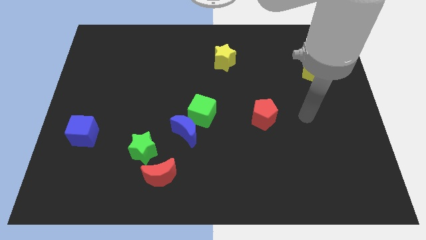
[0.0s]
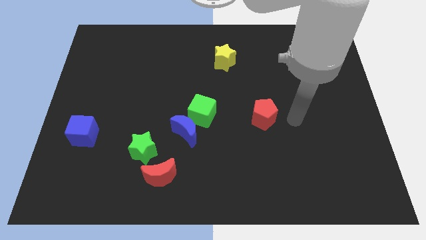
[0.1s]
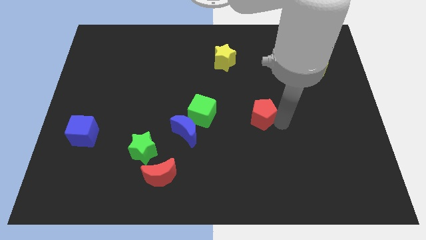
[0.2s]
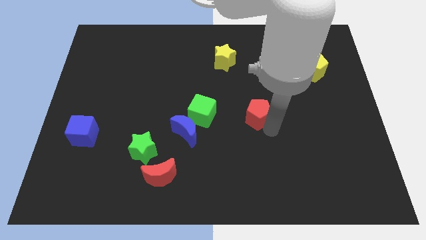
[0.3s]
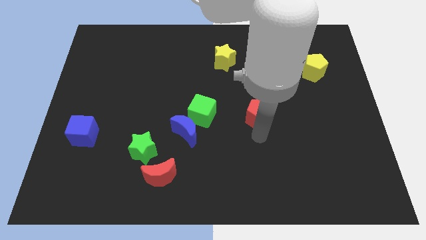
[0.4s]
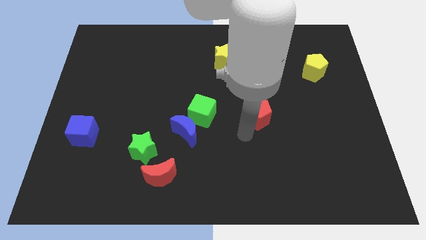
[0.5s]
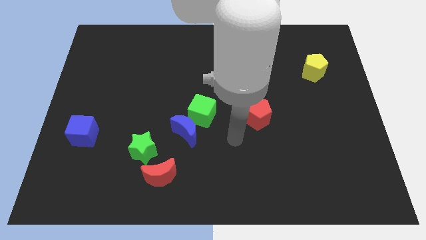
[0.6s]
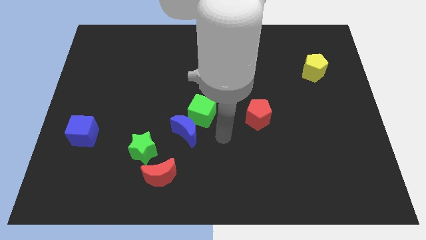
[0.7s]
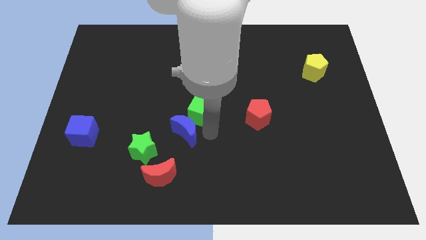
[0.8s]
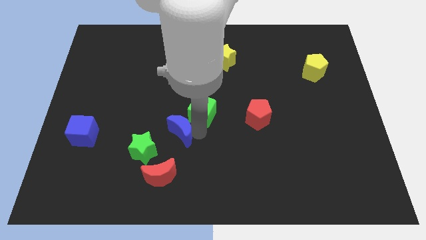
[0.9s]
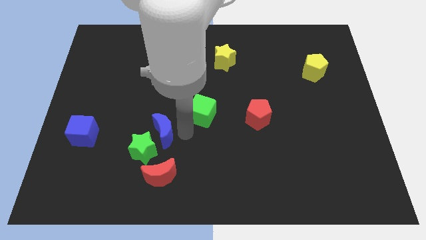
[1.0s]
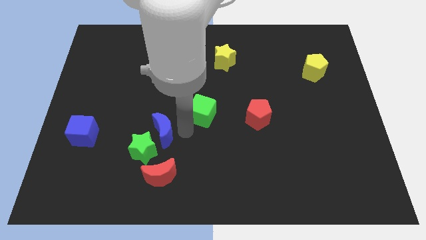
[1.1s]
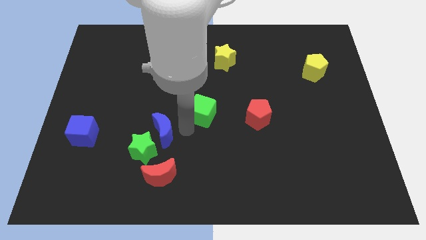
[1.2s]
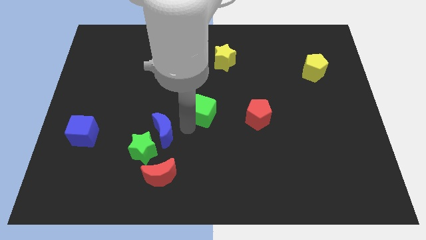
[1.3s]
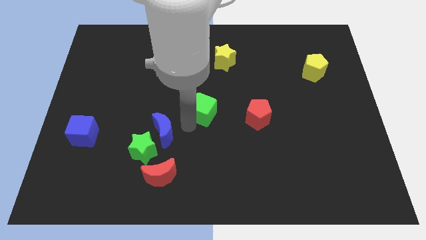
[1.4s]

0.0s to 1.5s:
pull the green cube apart from the blue moon

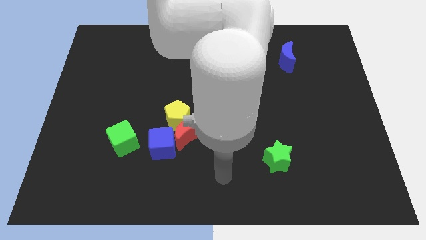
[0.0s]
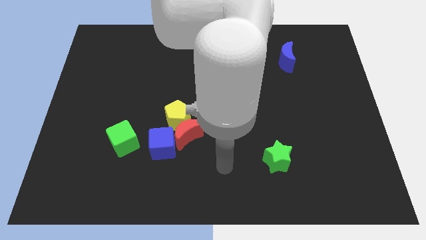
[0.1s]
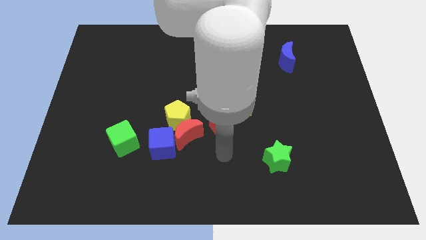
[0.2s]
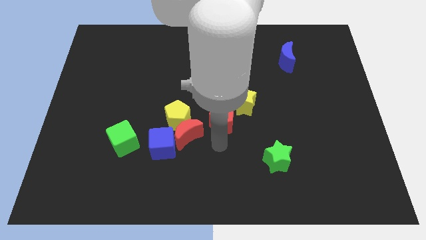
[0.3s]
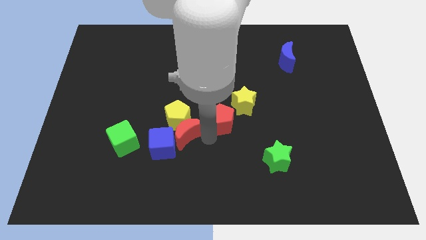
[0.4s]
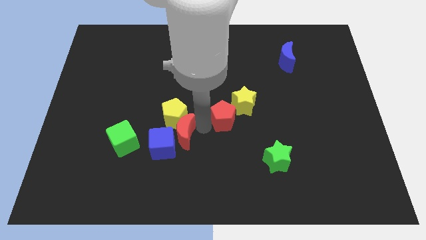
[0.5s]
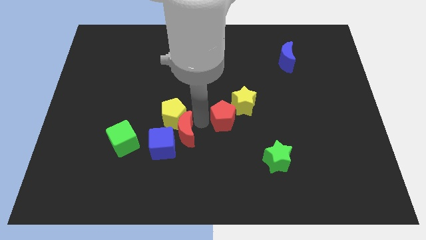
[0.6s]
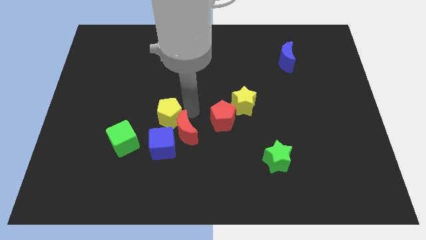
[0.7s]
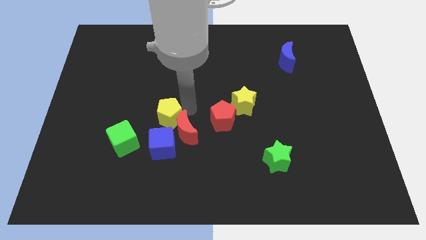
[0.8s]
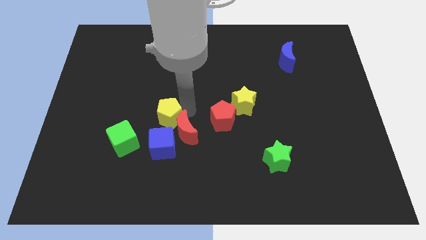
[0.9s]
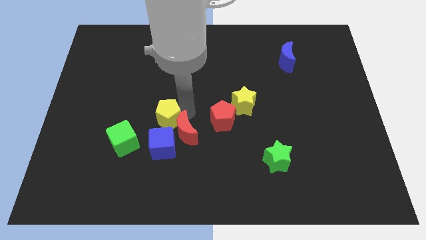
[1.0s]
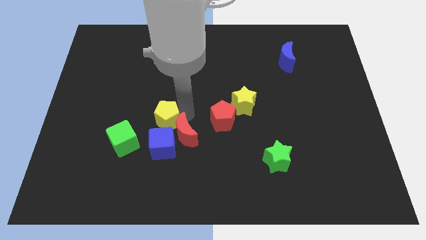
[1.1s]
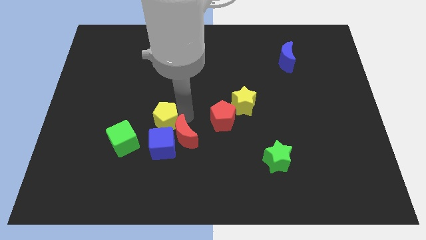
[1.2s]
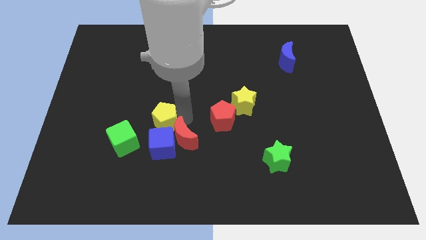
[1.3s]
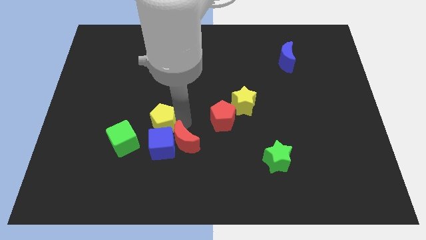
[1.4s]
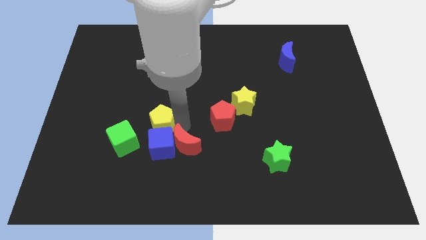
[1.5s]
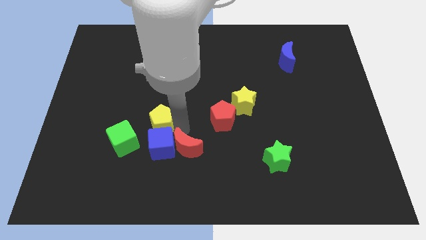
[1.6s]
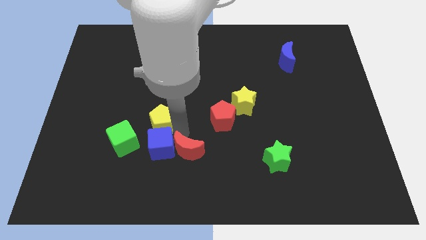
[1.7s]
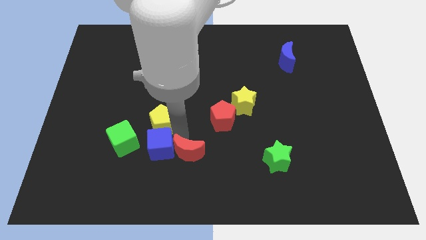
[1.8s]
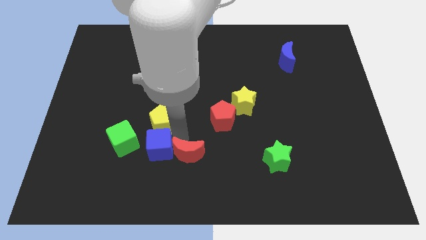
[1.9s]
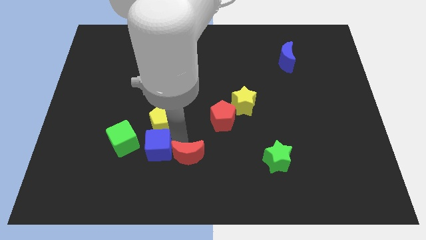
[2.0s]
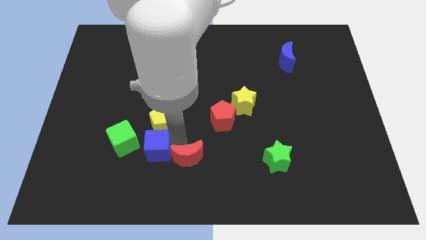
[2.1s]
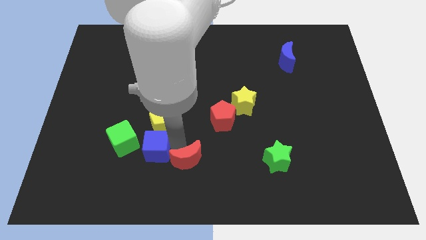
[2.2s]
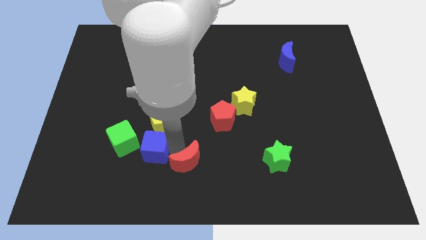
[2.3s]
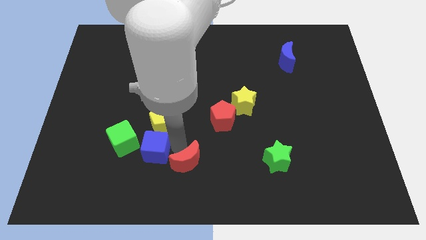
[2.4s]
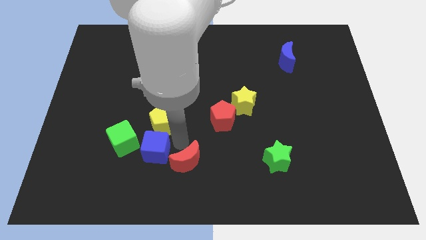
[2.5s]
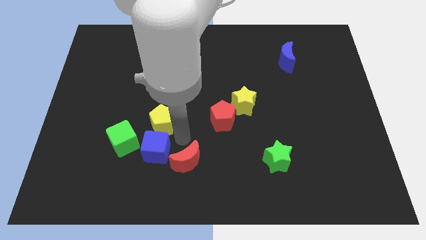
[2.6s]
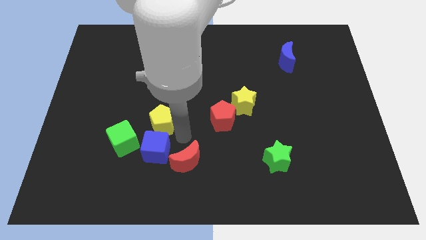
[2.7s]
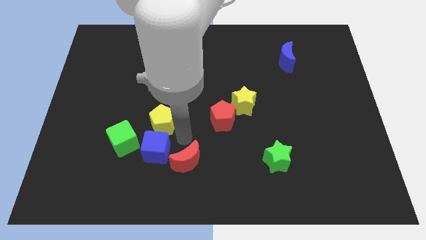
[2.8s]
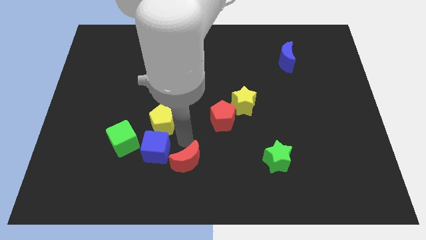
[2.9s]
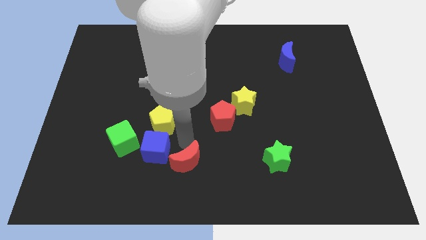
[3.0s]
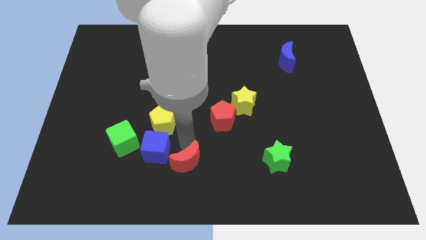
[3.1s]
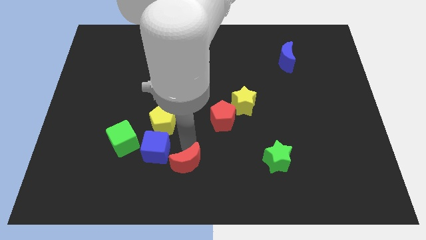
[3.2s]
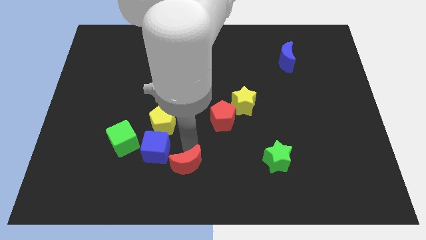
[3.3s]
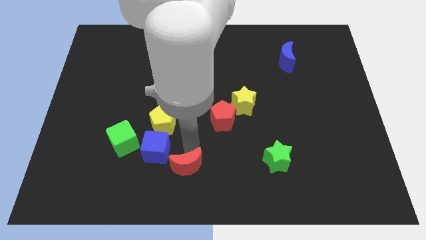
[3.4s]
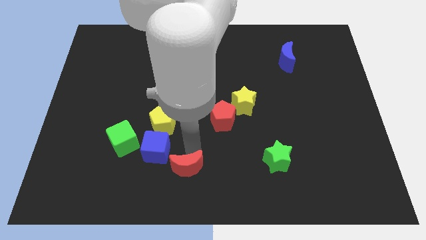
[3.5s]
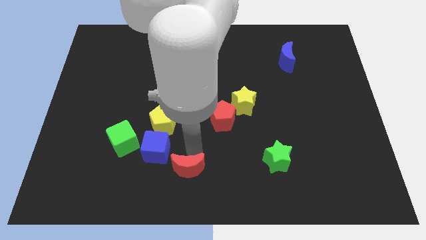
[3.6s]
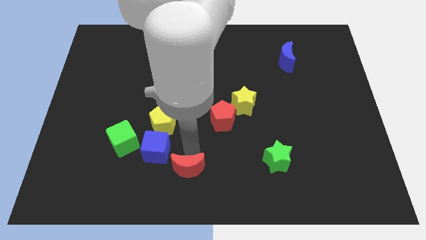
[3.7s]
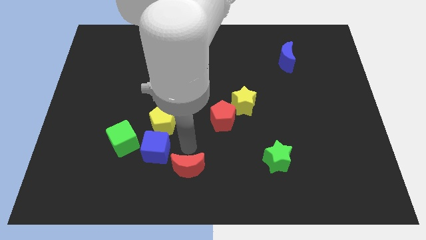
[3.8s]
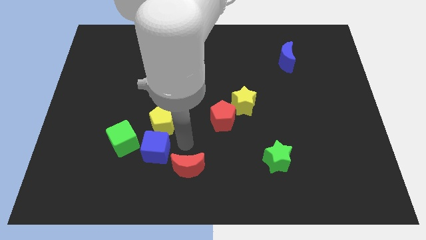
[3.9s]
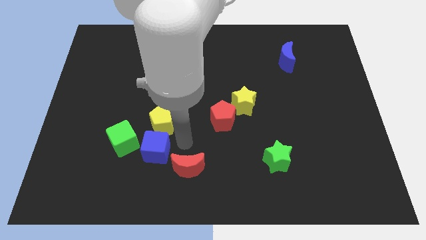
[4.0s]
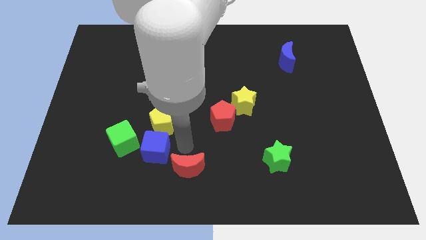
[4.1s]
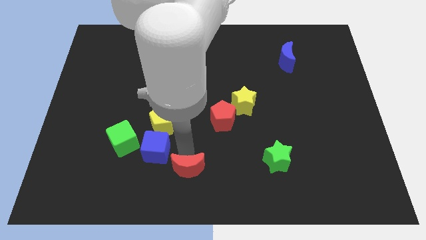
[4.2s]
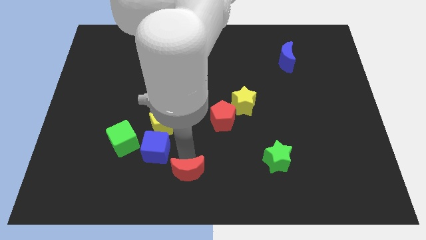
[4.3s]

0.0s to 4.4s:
move the red moon away from the yellow pentagon, blue cube, and red pentagon

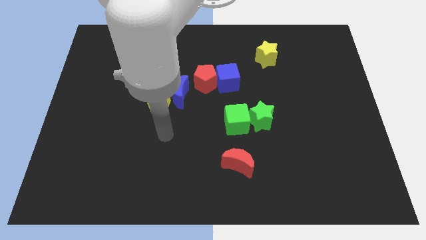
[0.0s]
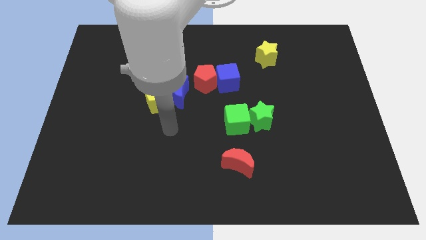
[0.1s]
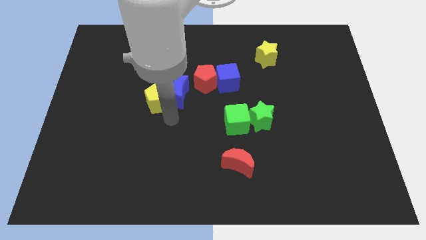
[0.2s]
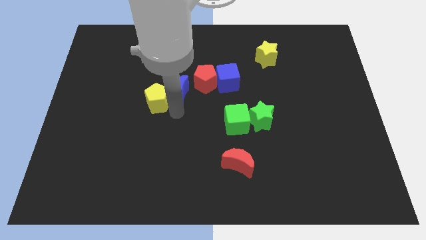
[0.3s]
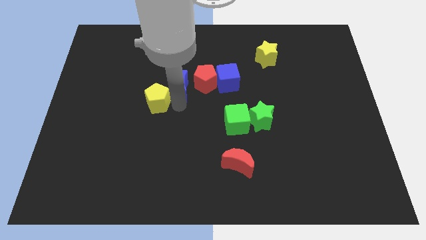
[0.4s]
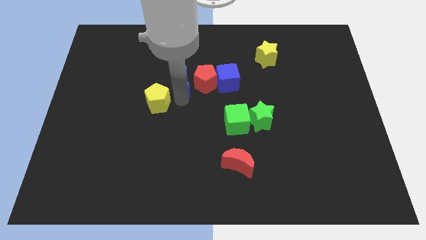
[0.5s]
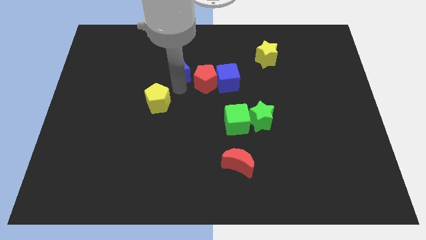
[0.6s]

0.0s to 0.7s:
move the yellow pentagon away from the blue moon

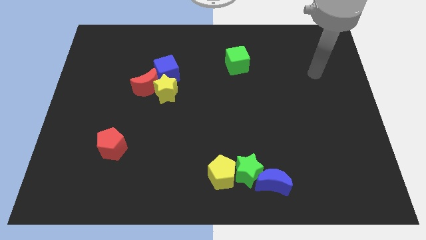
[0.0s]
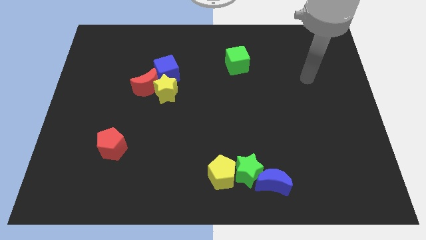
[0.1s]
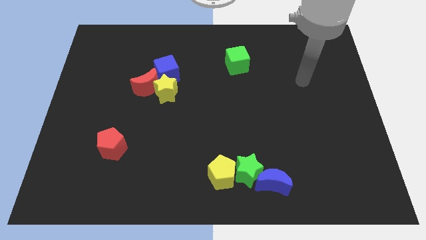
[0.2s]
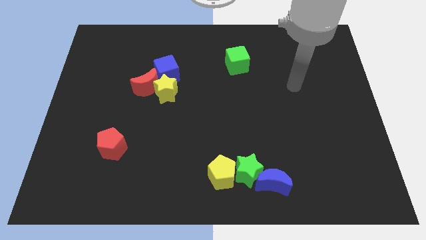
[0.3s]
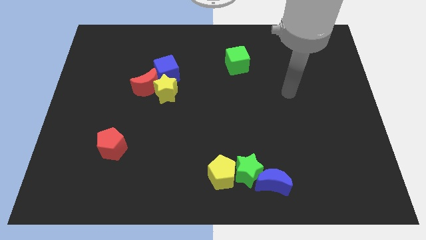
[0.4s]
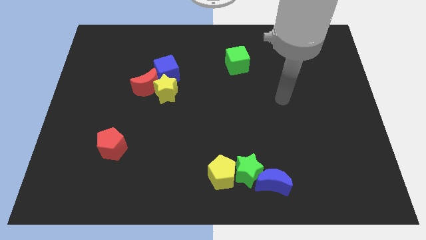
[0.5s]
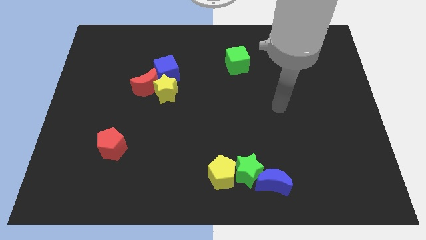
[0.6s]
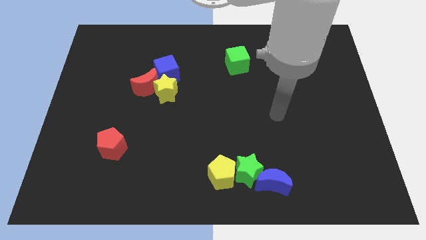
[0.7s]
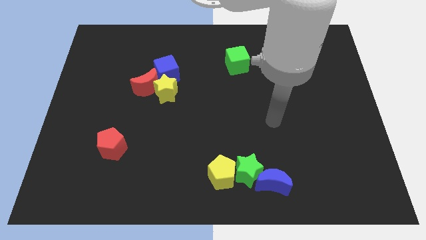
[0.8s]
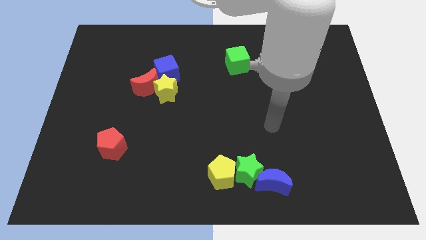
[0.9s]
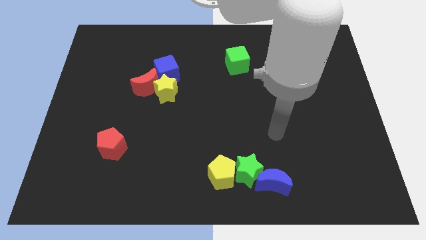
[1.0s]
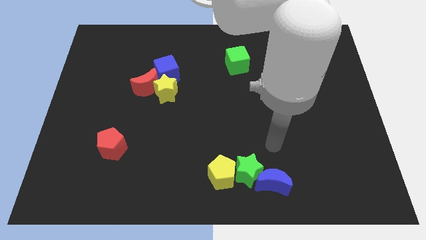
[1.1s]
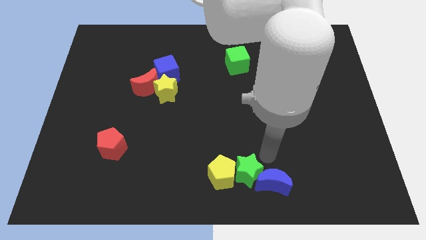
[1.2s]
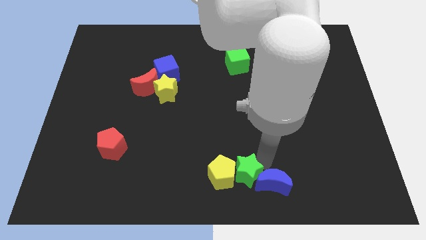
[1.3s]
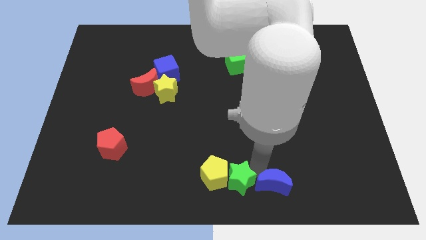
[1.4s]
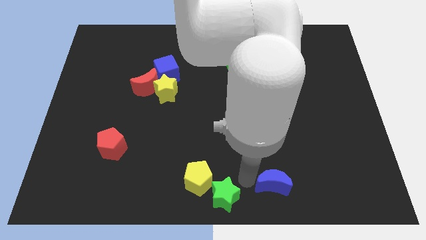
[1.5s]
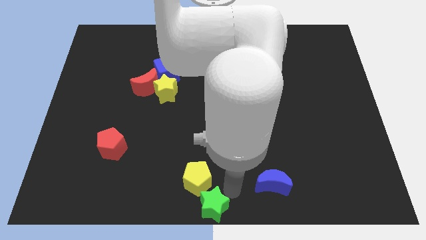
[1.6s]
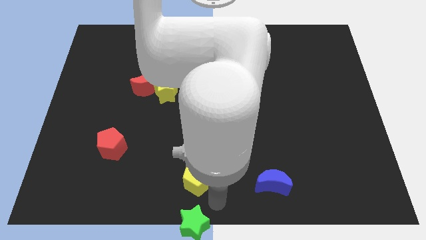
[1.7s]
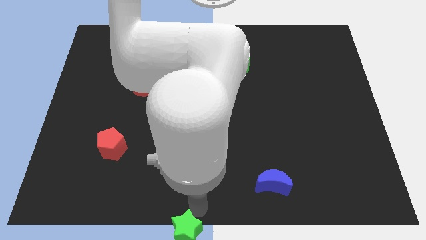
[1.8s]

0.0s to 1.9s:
pull the yellow pentagon apart from the green star

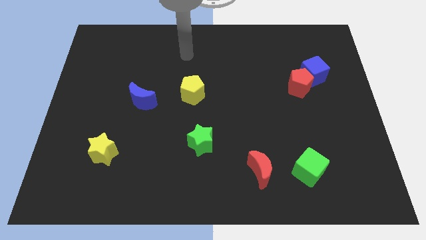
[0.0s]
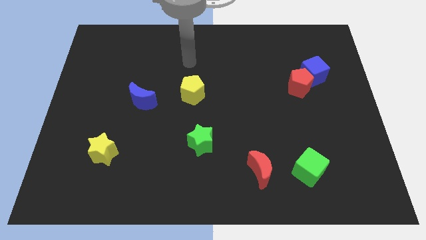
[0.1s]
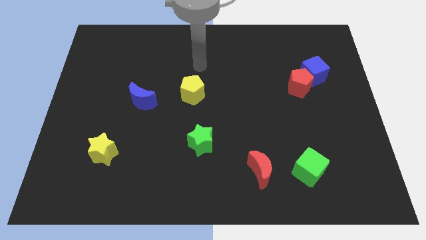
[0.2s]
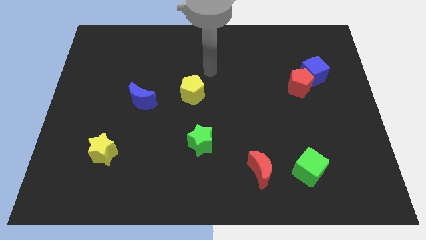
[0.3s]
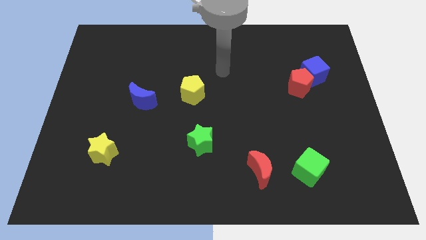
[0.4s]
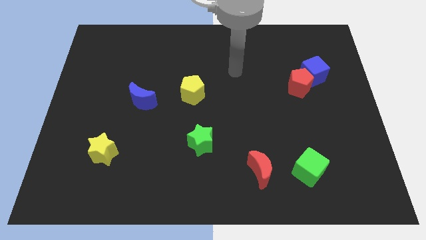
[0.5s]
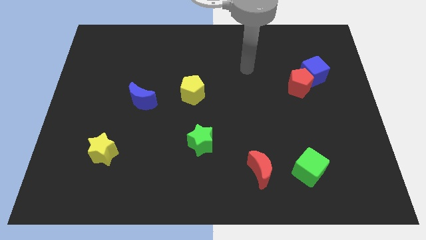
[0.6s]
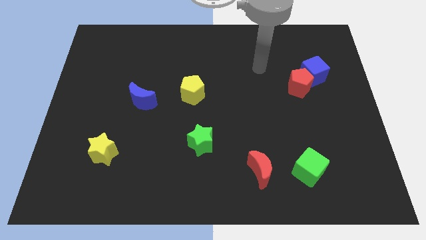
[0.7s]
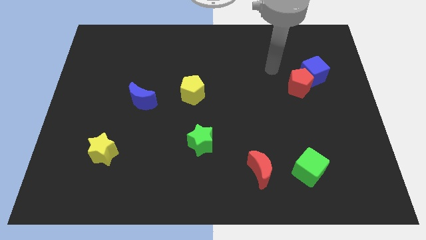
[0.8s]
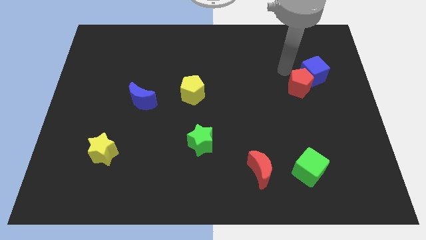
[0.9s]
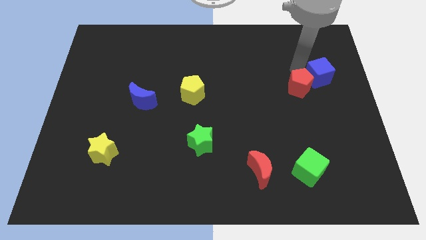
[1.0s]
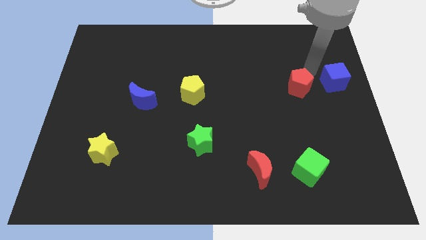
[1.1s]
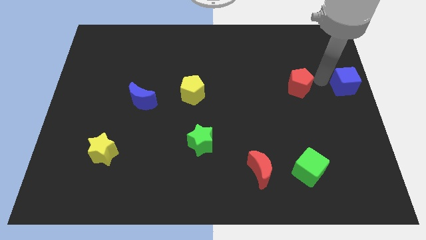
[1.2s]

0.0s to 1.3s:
separate the red pentagon from the blue cube
